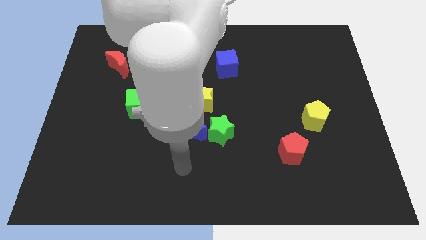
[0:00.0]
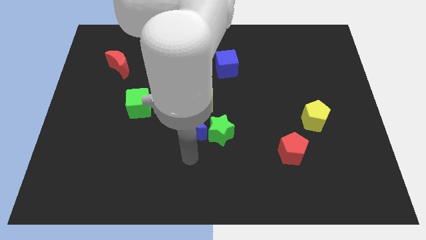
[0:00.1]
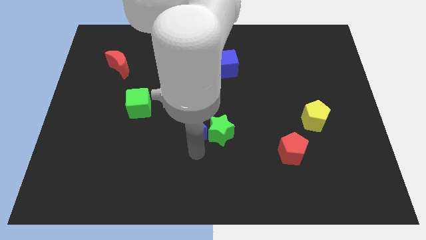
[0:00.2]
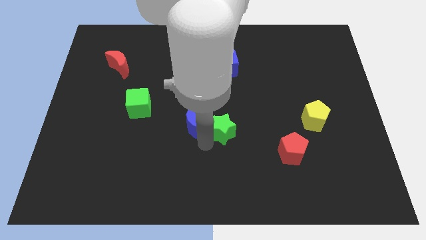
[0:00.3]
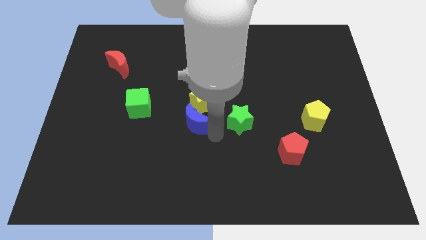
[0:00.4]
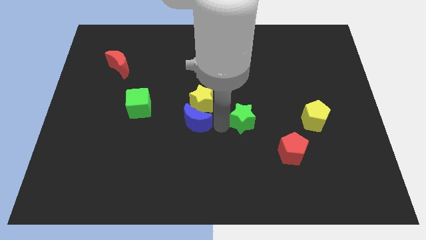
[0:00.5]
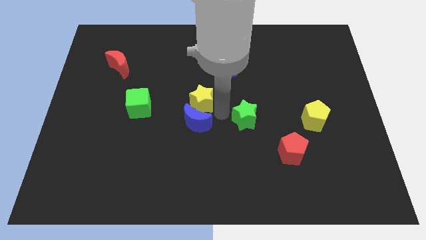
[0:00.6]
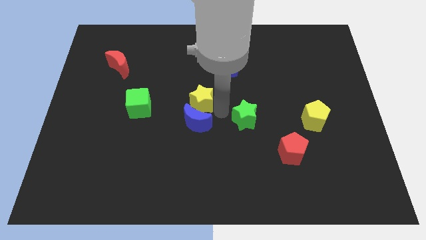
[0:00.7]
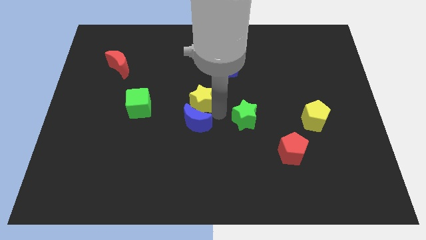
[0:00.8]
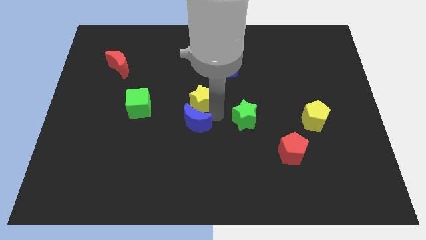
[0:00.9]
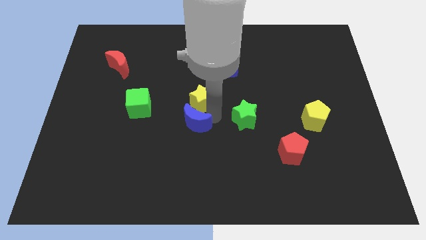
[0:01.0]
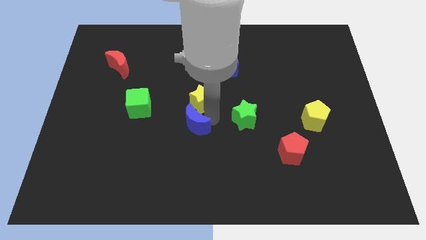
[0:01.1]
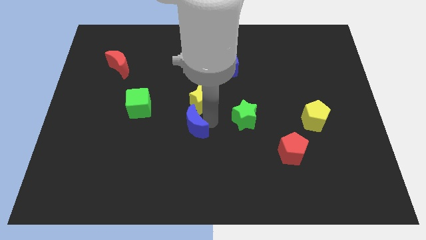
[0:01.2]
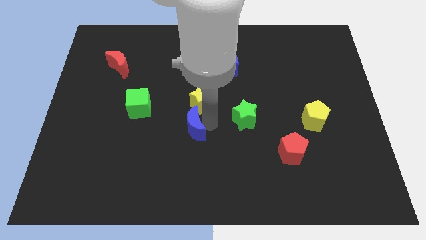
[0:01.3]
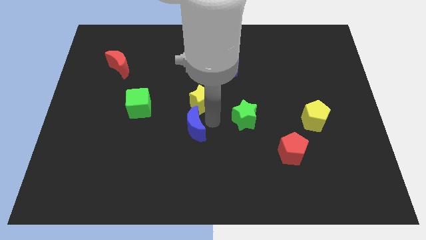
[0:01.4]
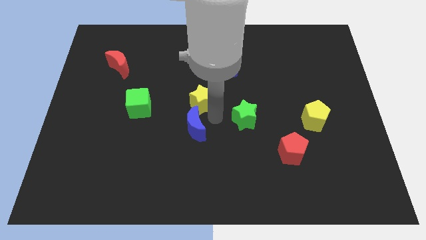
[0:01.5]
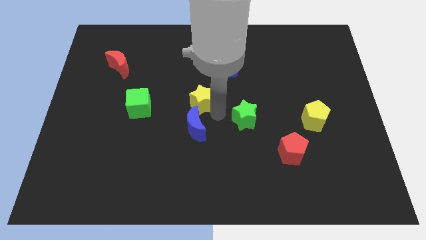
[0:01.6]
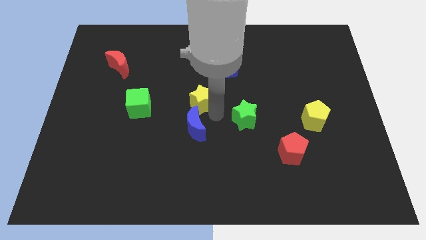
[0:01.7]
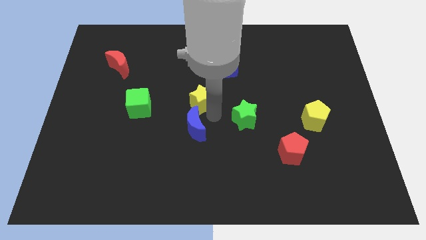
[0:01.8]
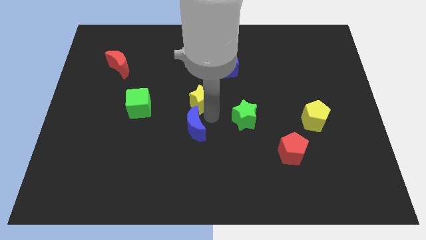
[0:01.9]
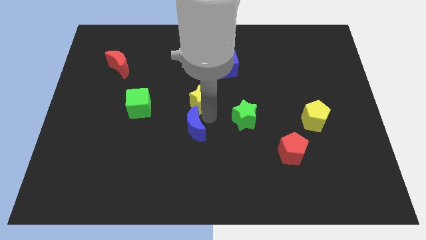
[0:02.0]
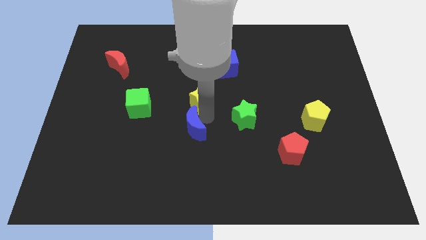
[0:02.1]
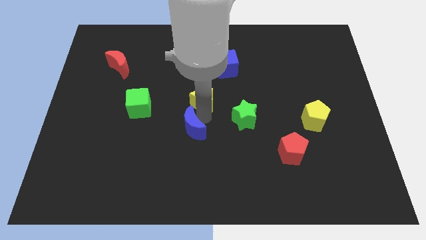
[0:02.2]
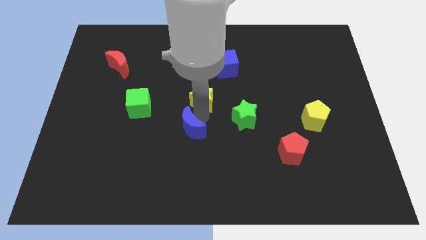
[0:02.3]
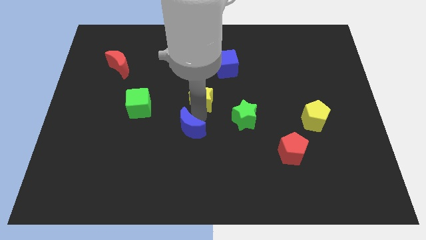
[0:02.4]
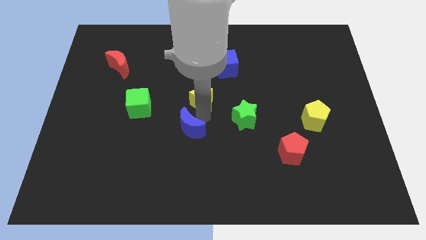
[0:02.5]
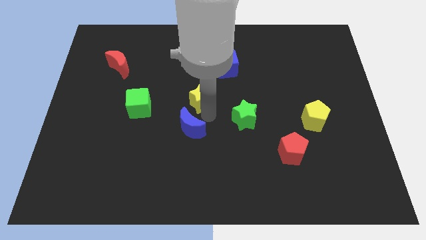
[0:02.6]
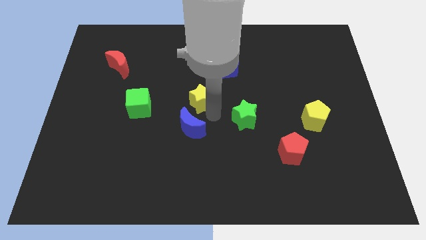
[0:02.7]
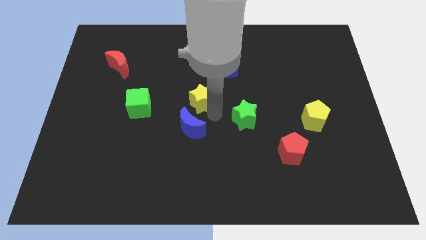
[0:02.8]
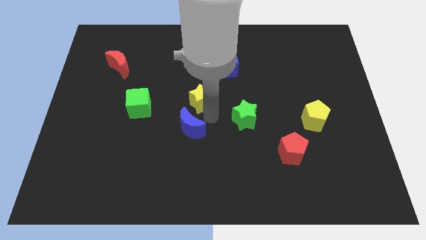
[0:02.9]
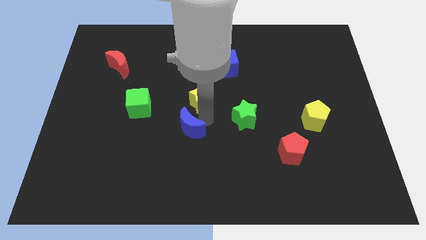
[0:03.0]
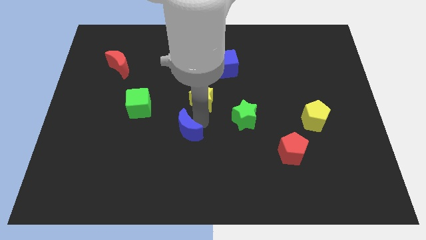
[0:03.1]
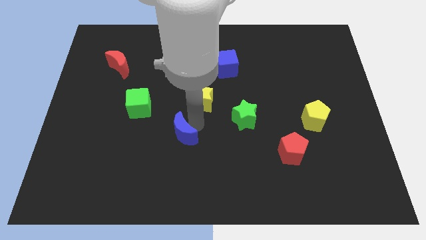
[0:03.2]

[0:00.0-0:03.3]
separate the blue moon from the green star and yellow star

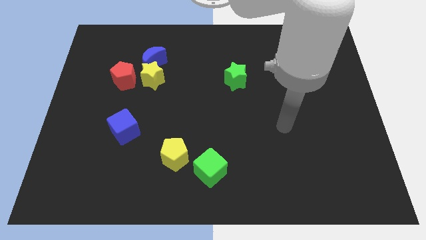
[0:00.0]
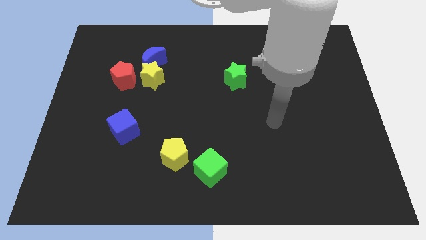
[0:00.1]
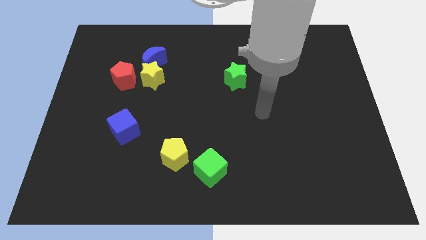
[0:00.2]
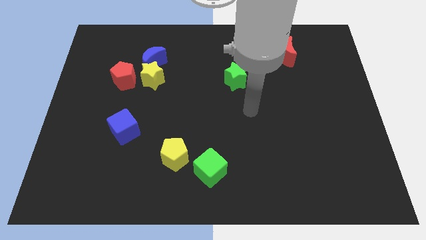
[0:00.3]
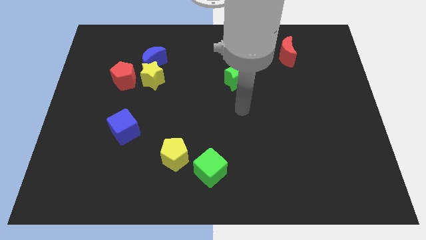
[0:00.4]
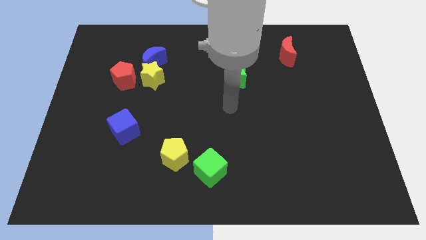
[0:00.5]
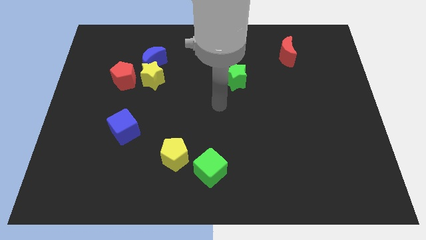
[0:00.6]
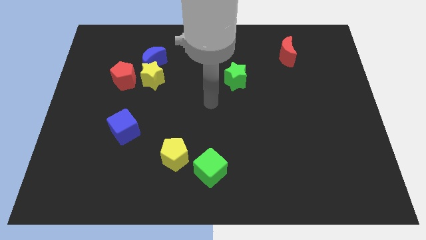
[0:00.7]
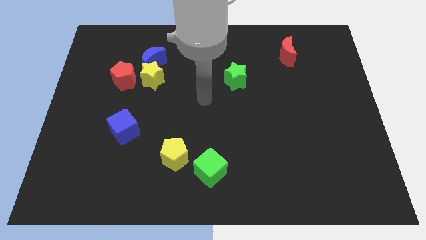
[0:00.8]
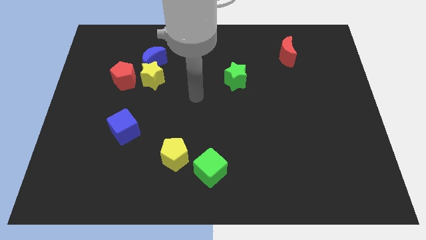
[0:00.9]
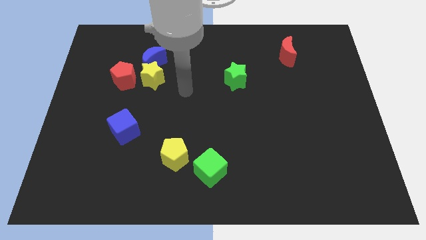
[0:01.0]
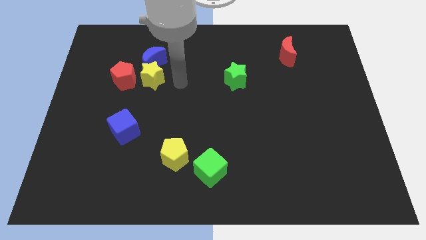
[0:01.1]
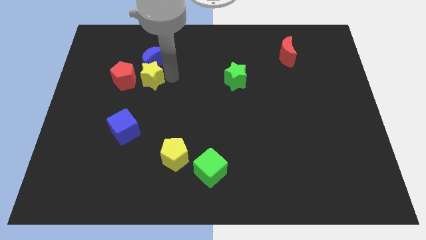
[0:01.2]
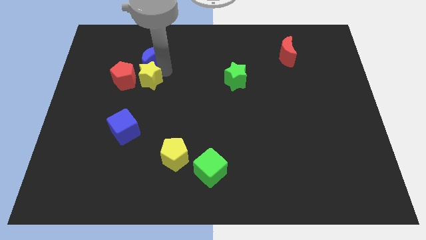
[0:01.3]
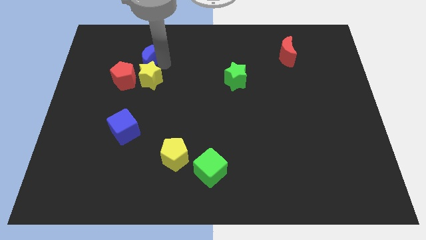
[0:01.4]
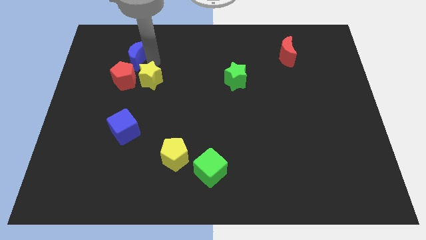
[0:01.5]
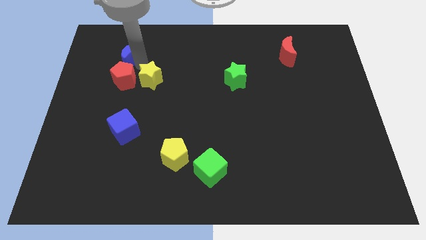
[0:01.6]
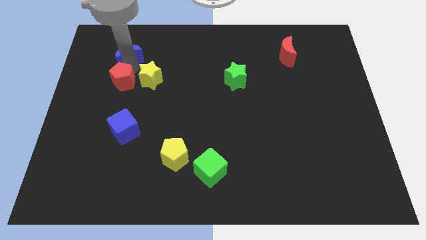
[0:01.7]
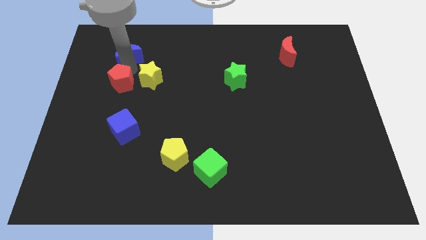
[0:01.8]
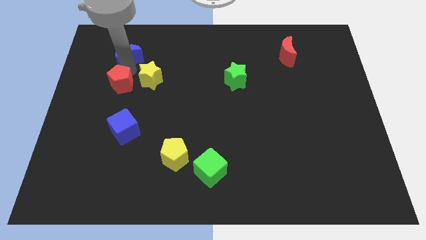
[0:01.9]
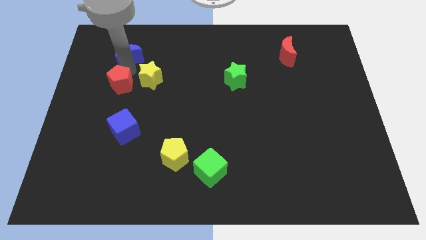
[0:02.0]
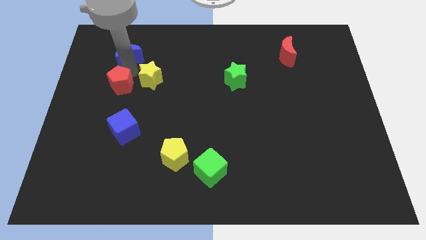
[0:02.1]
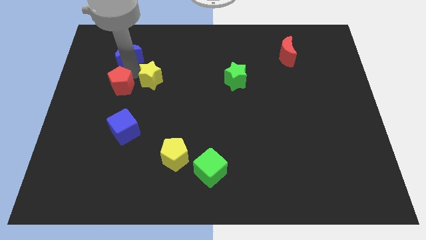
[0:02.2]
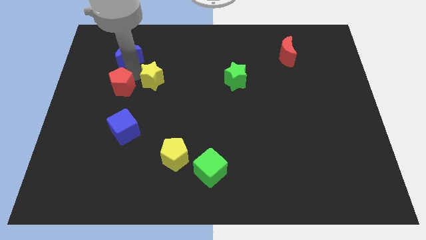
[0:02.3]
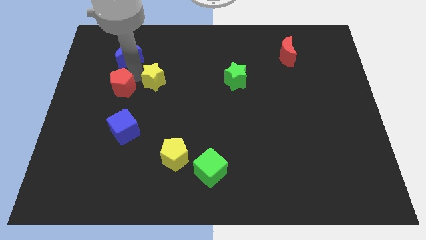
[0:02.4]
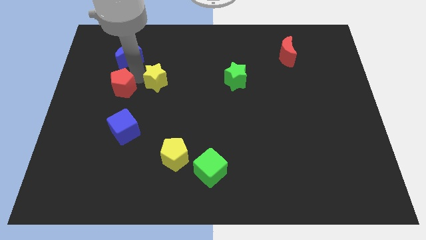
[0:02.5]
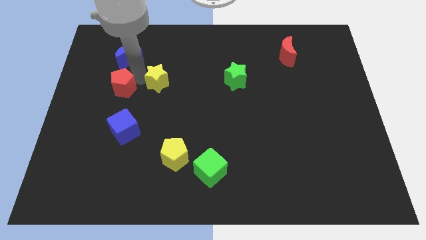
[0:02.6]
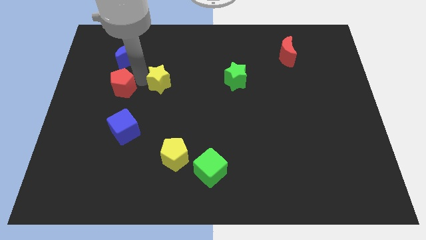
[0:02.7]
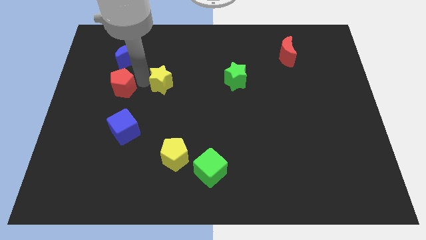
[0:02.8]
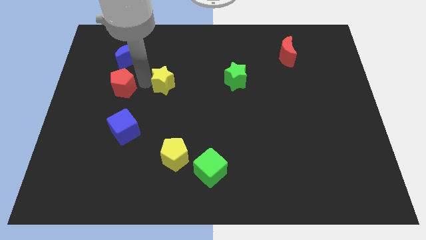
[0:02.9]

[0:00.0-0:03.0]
pull the yellow star apart from the blue moon and red pentagon

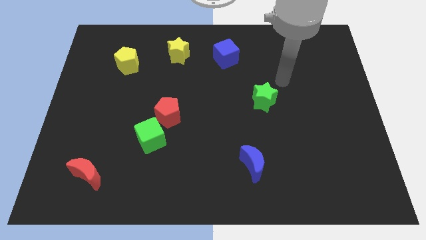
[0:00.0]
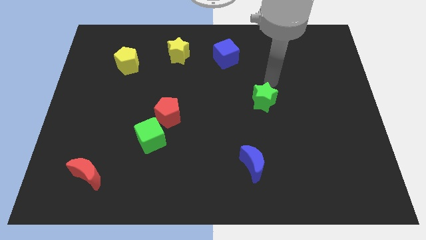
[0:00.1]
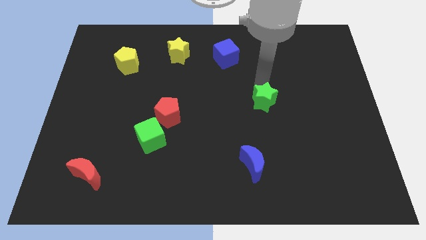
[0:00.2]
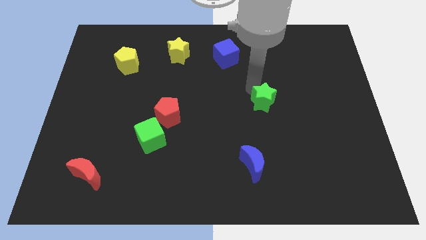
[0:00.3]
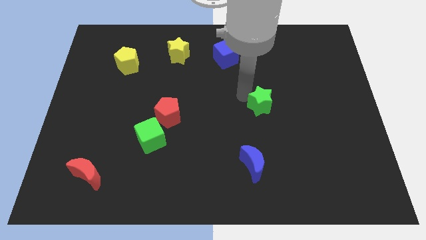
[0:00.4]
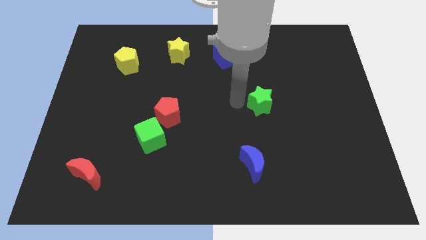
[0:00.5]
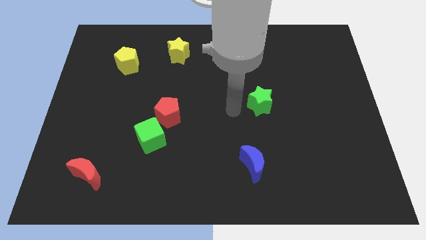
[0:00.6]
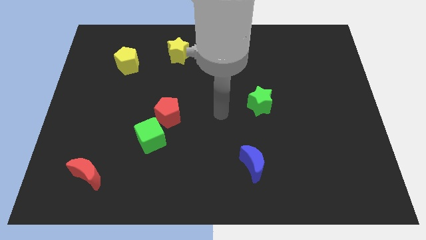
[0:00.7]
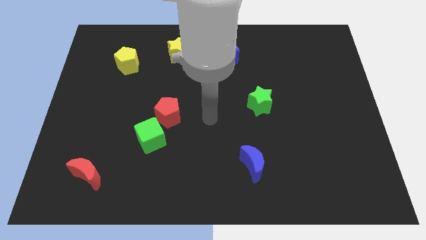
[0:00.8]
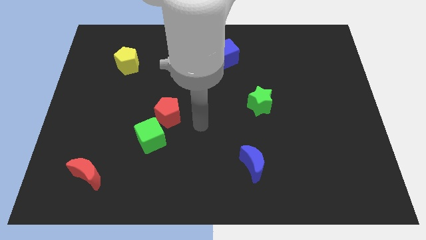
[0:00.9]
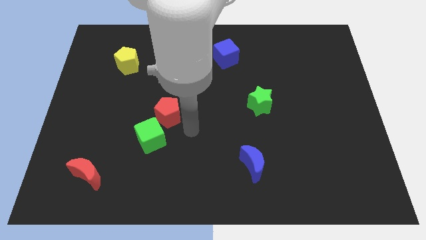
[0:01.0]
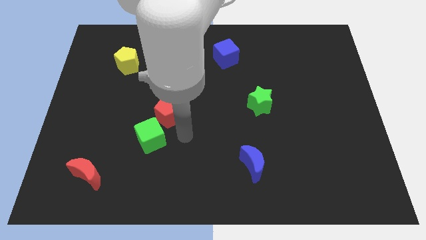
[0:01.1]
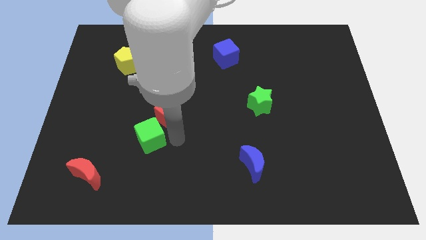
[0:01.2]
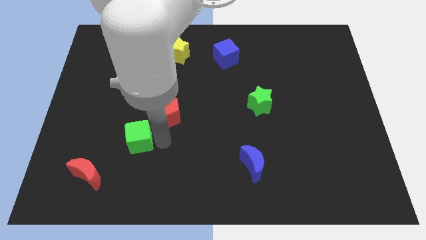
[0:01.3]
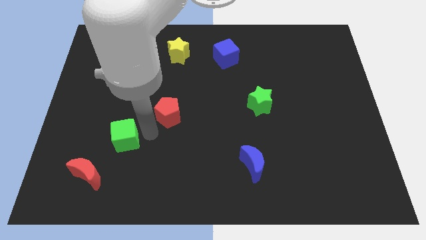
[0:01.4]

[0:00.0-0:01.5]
pull the red pentagon apart from the green cube

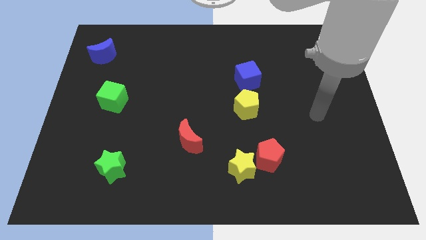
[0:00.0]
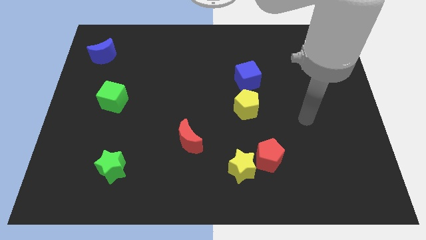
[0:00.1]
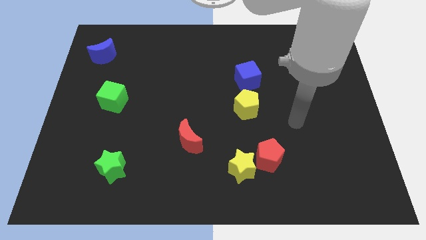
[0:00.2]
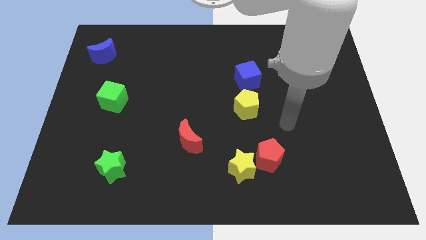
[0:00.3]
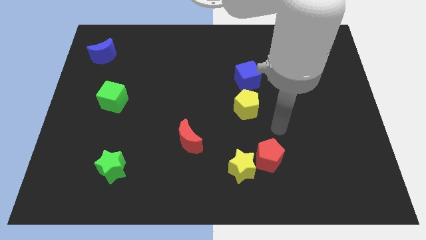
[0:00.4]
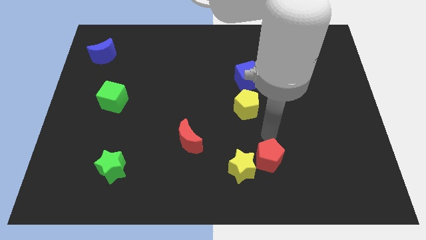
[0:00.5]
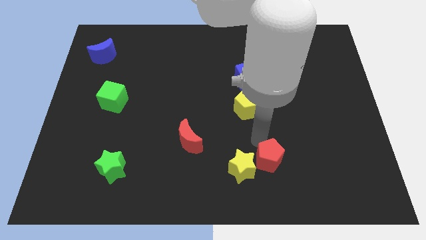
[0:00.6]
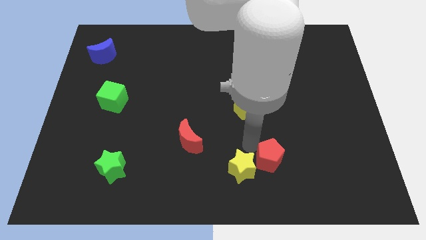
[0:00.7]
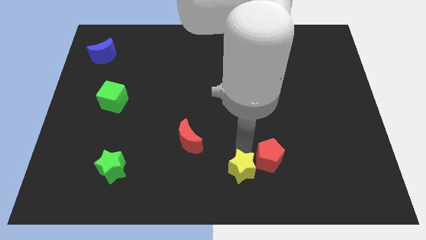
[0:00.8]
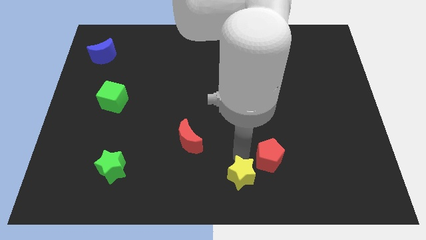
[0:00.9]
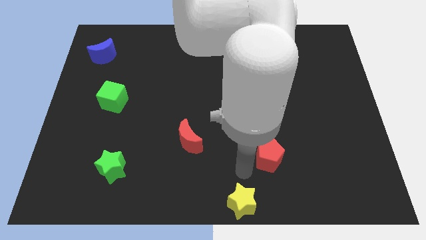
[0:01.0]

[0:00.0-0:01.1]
pull the red pentagon apart from the yellow star

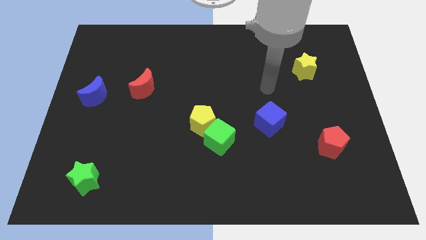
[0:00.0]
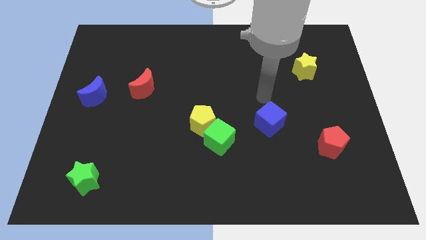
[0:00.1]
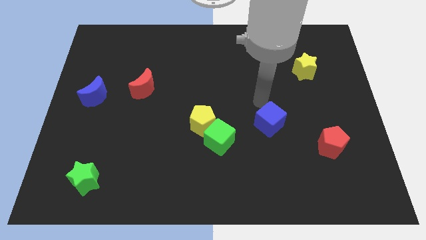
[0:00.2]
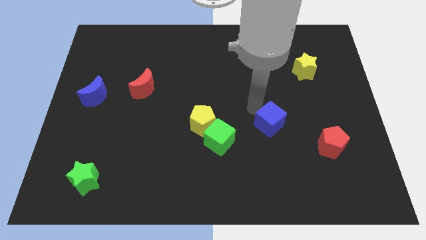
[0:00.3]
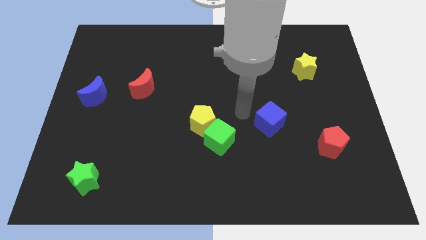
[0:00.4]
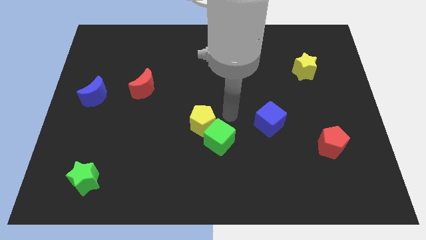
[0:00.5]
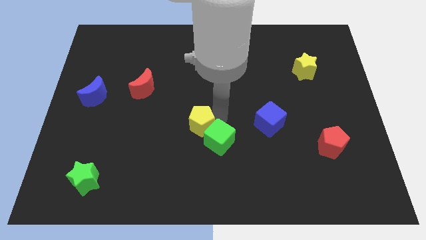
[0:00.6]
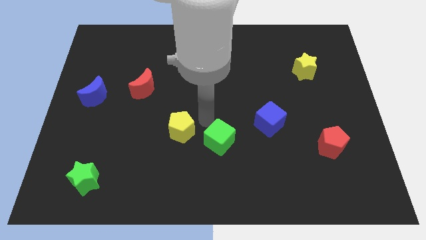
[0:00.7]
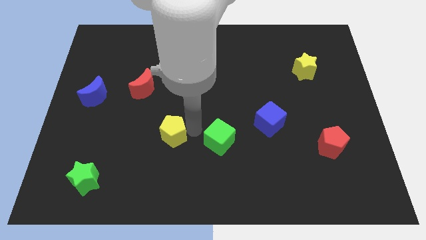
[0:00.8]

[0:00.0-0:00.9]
move the green cube away from the yellow pentagon
